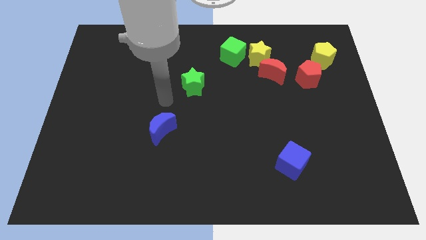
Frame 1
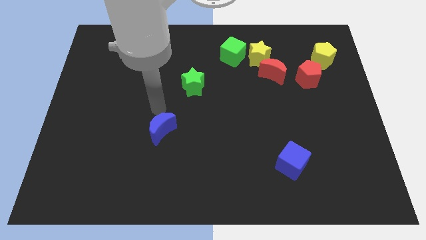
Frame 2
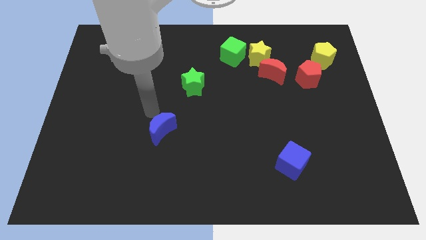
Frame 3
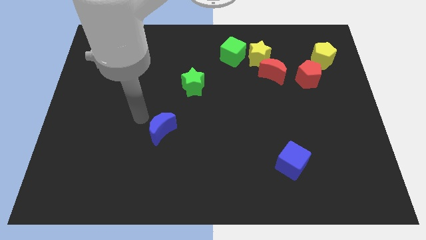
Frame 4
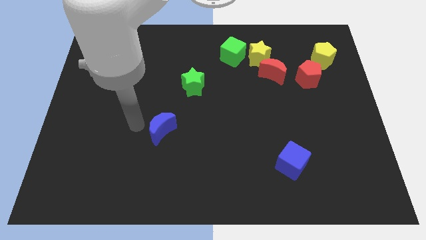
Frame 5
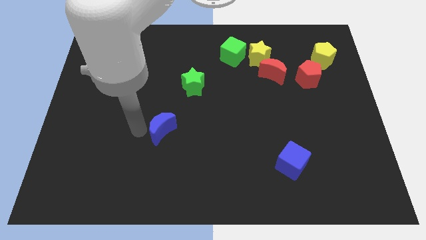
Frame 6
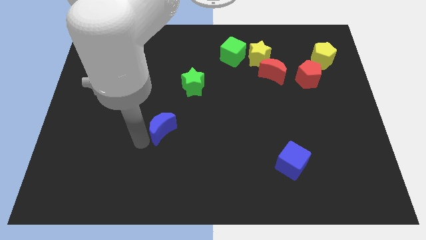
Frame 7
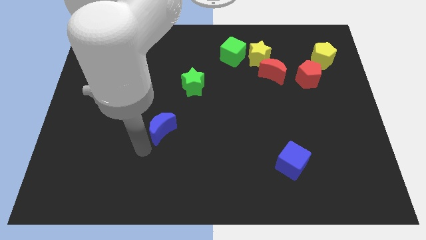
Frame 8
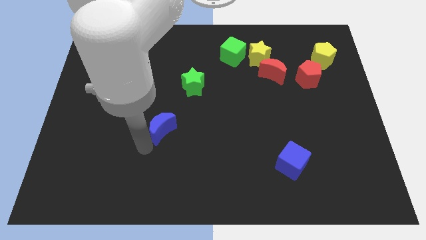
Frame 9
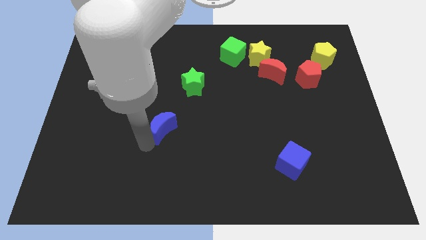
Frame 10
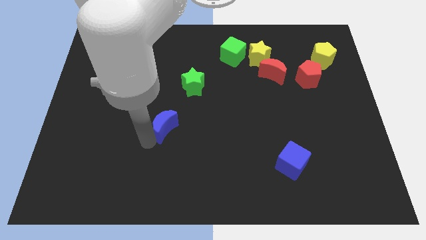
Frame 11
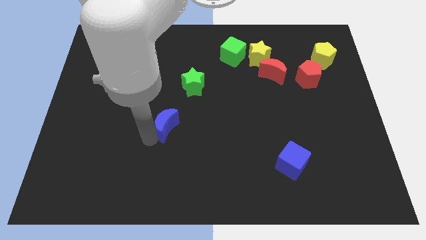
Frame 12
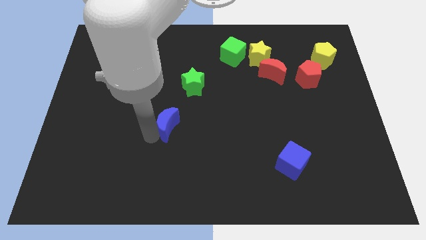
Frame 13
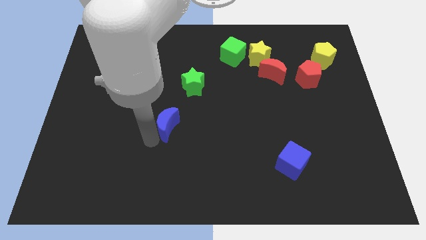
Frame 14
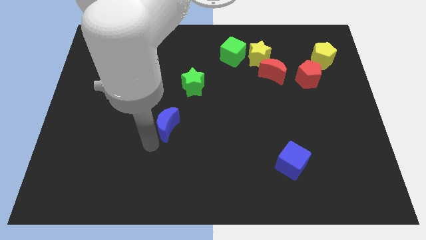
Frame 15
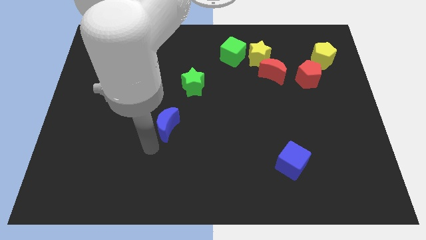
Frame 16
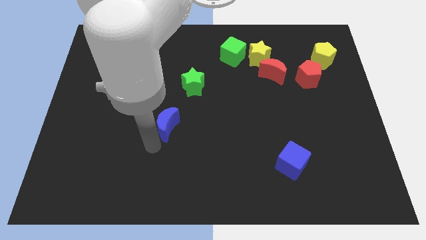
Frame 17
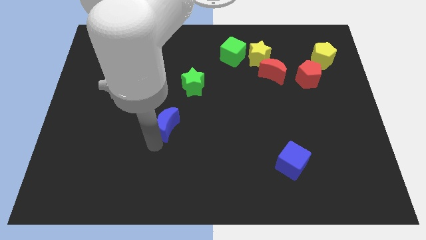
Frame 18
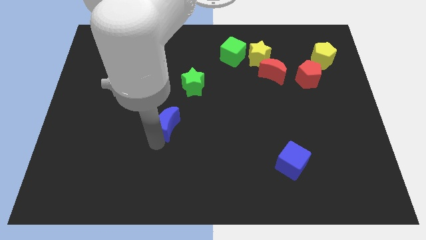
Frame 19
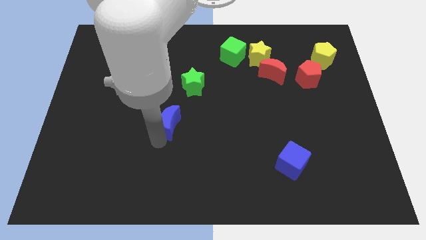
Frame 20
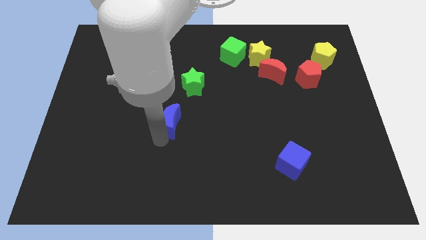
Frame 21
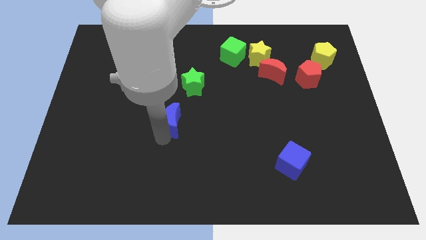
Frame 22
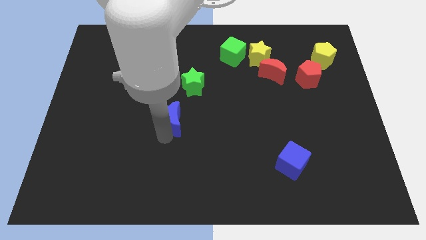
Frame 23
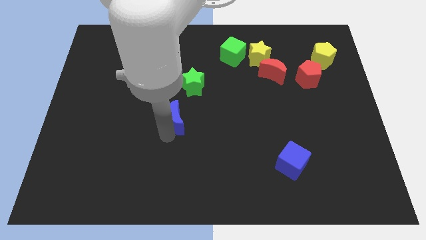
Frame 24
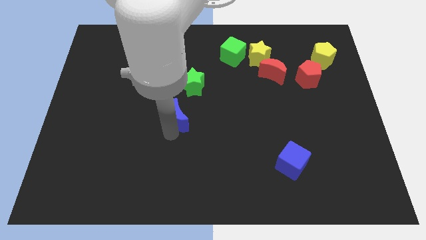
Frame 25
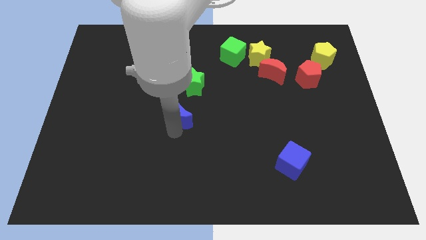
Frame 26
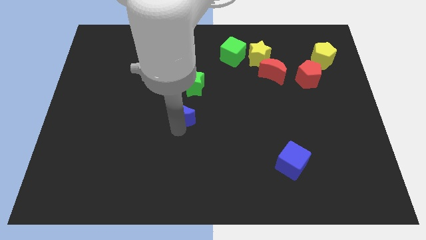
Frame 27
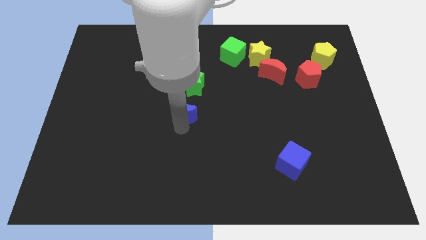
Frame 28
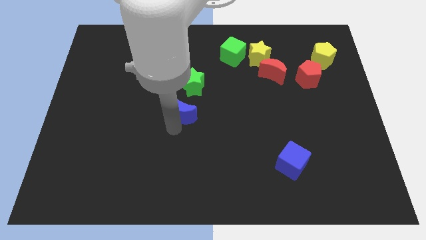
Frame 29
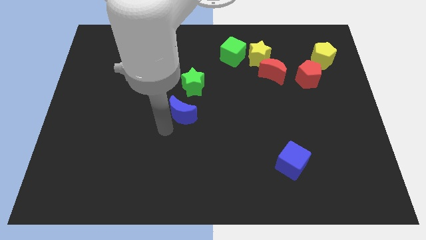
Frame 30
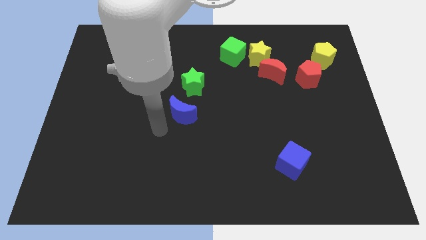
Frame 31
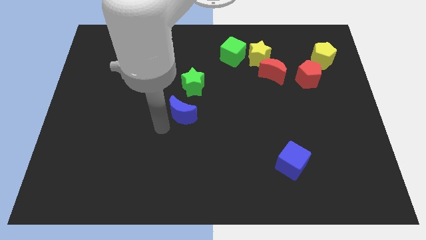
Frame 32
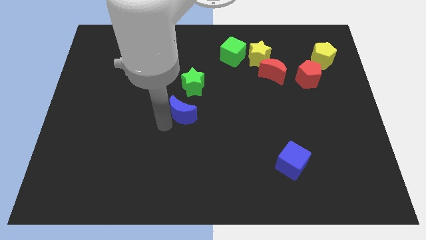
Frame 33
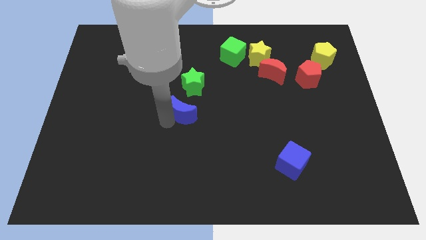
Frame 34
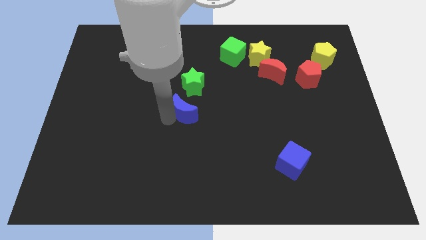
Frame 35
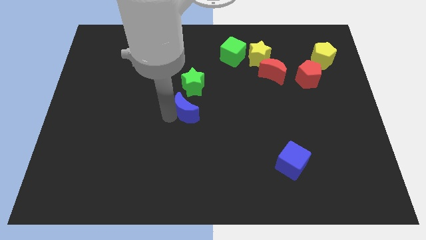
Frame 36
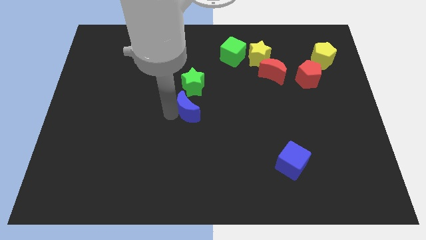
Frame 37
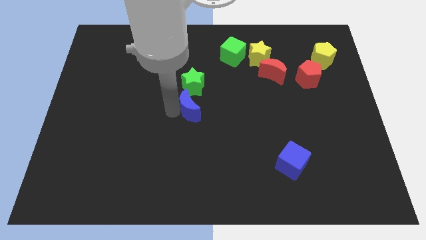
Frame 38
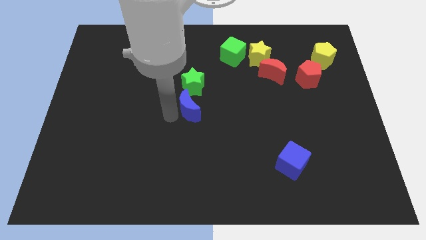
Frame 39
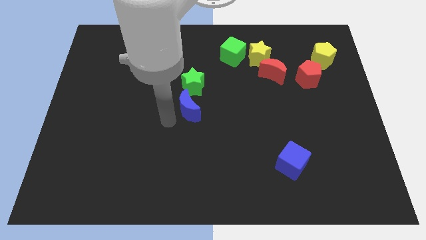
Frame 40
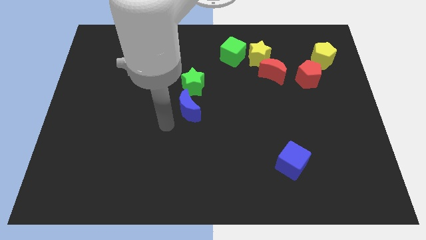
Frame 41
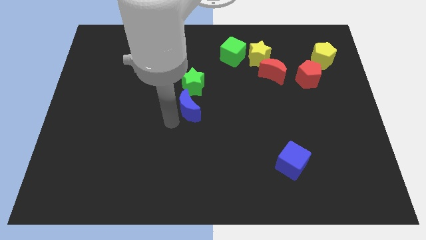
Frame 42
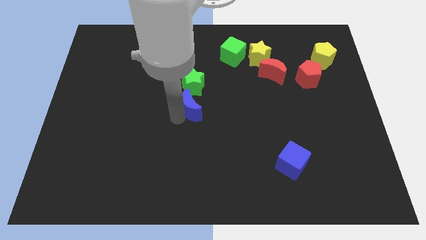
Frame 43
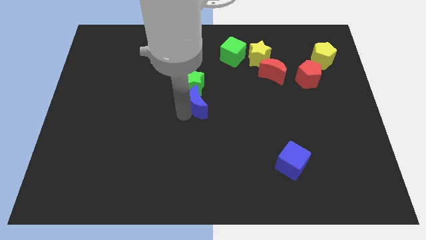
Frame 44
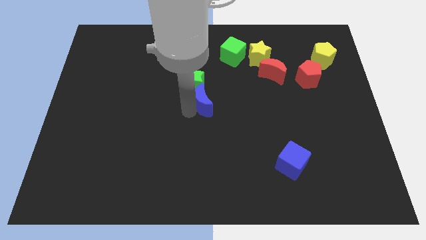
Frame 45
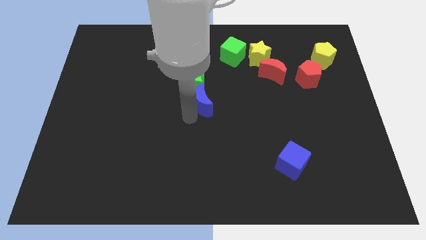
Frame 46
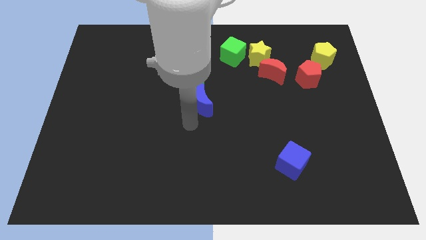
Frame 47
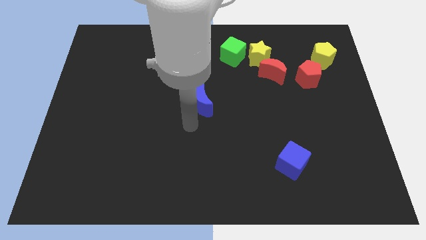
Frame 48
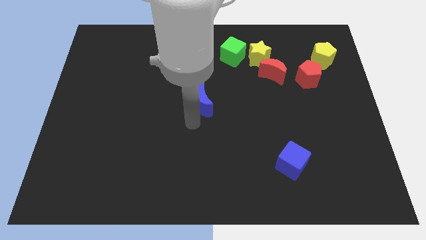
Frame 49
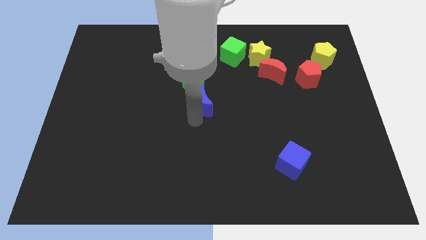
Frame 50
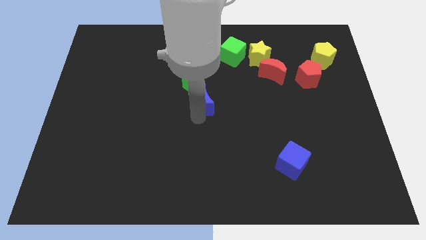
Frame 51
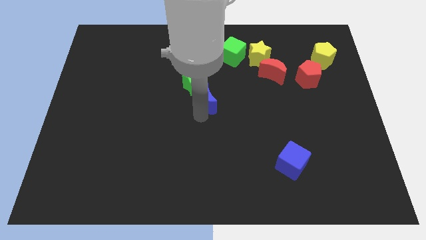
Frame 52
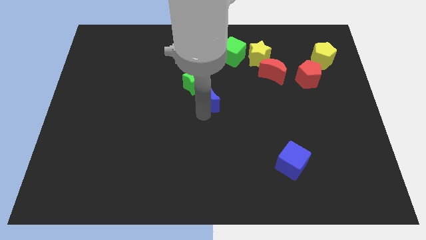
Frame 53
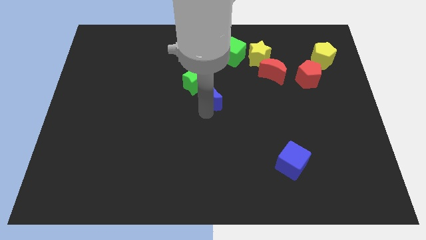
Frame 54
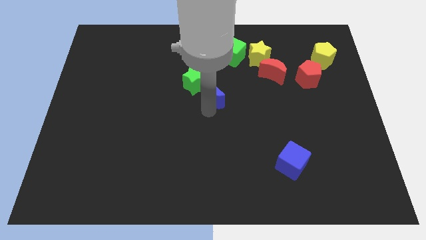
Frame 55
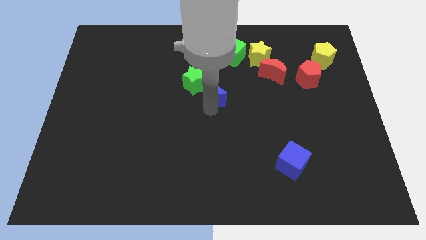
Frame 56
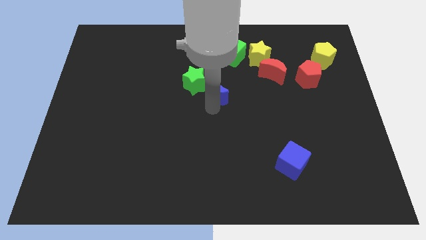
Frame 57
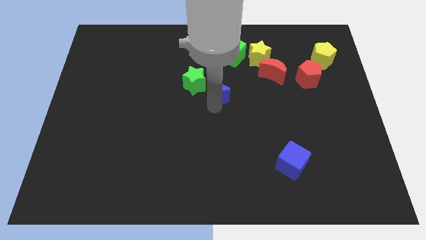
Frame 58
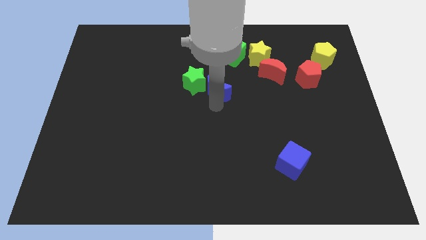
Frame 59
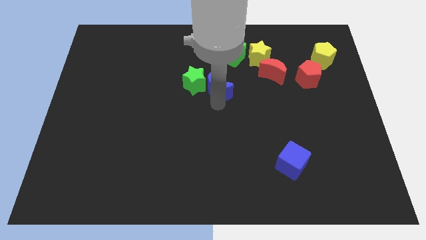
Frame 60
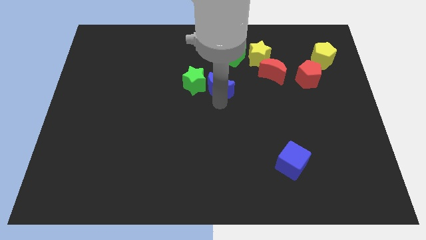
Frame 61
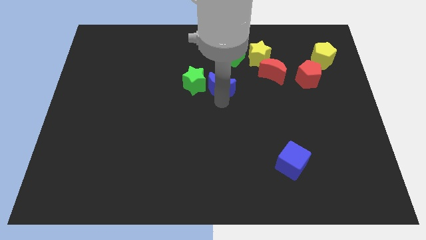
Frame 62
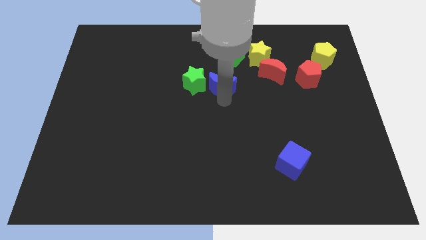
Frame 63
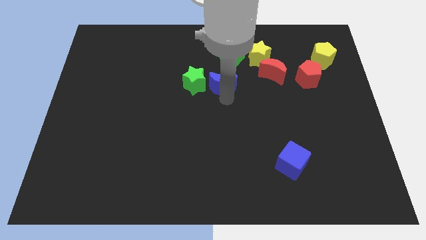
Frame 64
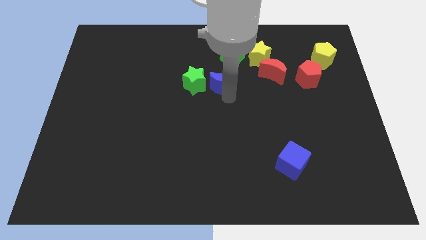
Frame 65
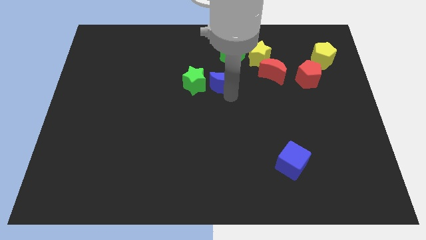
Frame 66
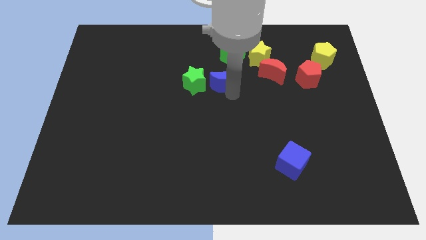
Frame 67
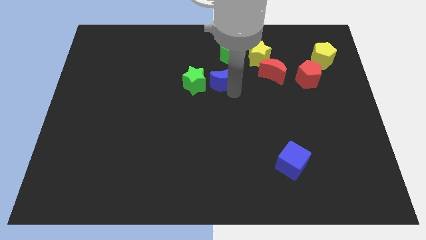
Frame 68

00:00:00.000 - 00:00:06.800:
put the blue moon diagonally up and to the right of the green star

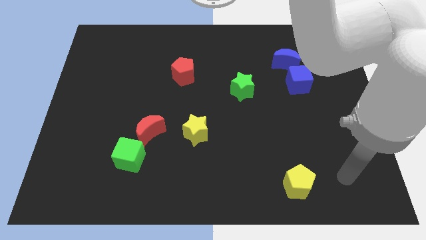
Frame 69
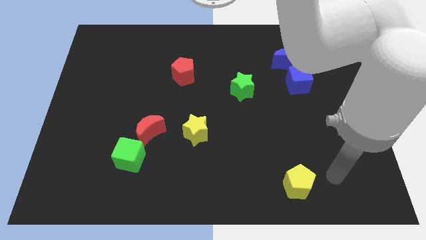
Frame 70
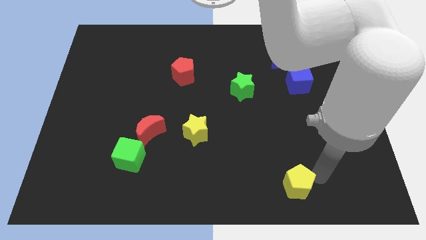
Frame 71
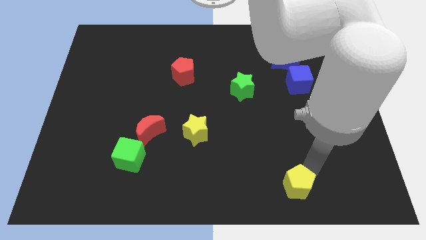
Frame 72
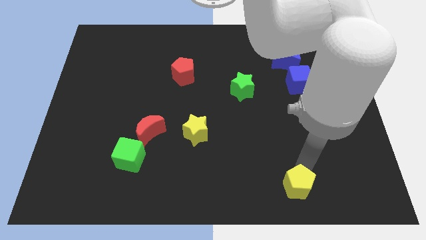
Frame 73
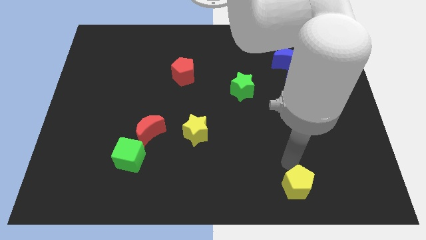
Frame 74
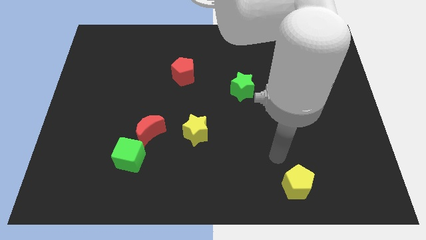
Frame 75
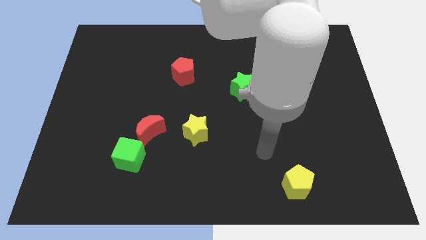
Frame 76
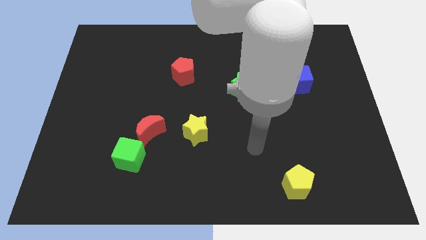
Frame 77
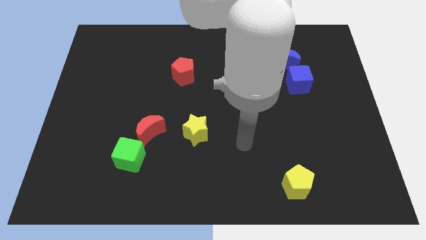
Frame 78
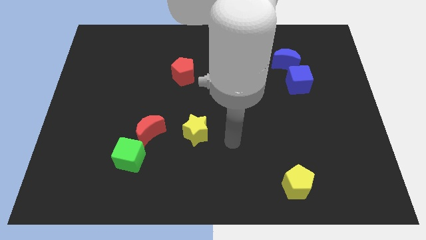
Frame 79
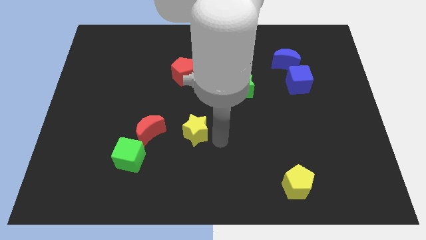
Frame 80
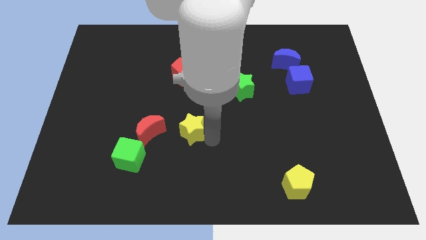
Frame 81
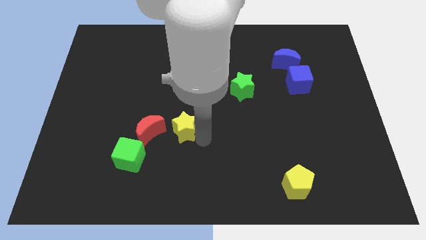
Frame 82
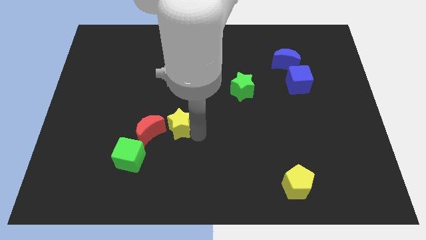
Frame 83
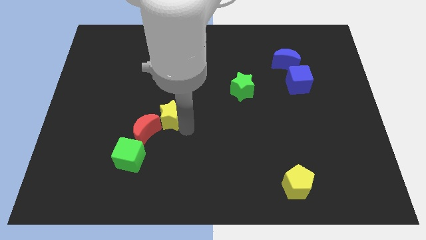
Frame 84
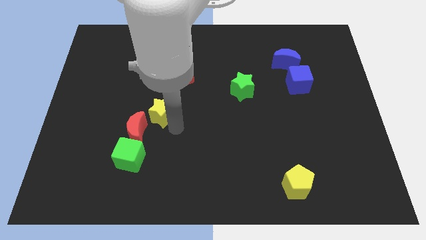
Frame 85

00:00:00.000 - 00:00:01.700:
move the red moon to the top left of the green cube
